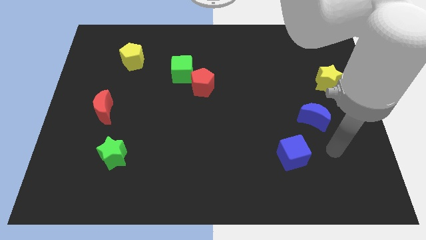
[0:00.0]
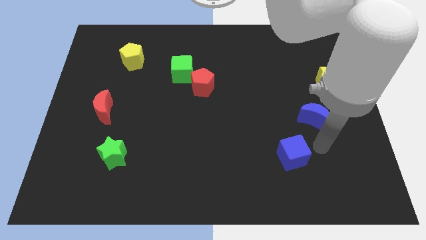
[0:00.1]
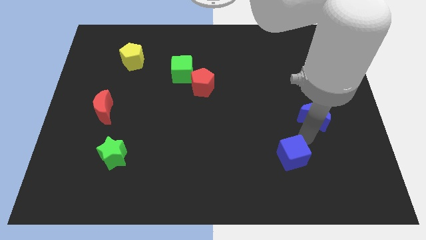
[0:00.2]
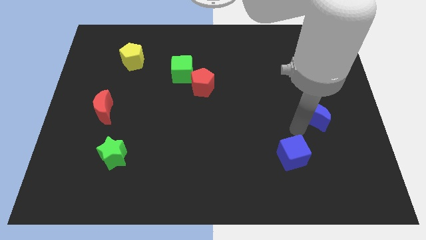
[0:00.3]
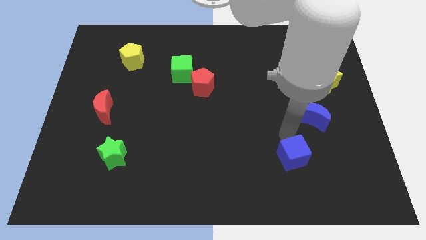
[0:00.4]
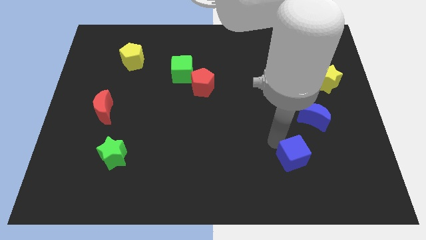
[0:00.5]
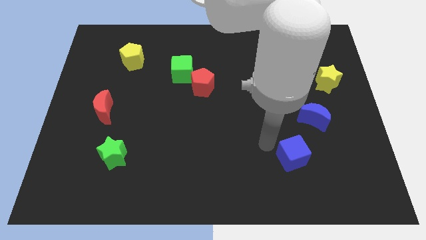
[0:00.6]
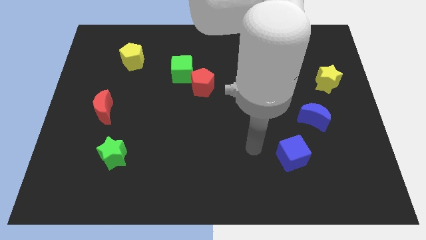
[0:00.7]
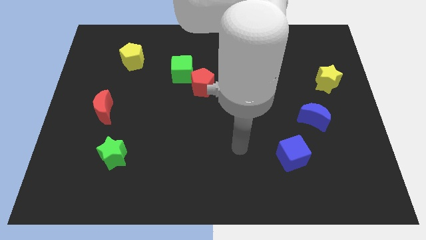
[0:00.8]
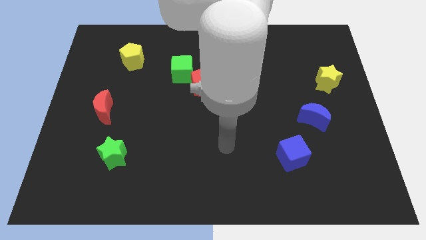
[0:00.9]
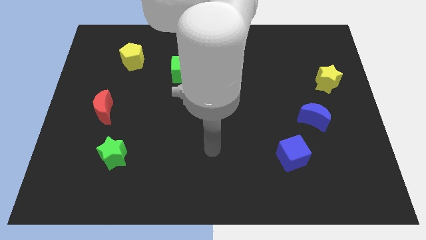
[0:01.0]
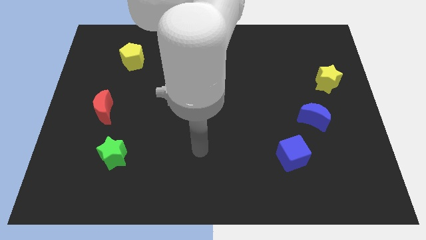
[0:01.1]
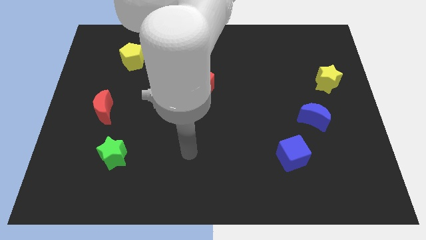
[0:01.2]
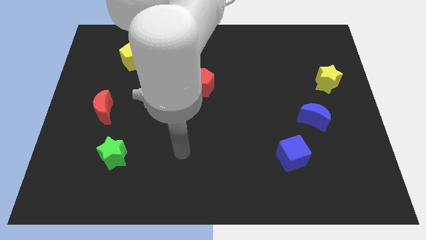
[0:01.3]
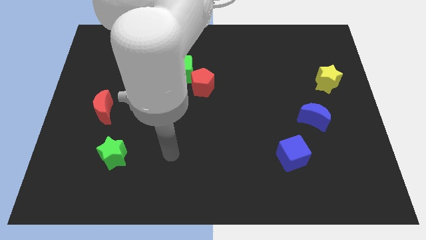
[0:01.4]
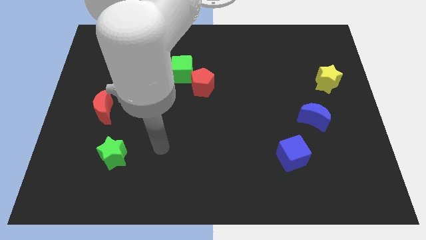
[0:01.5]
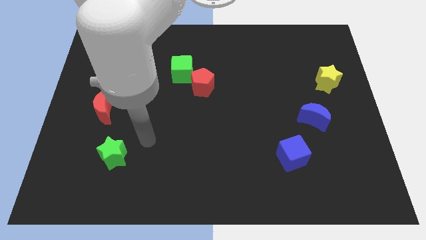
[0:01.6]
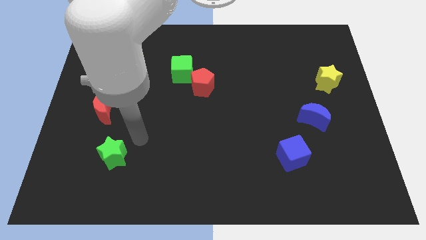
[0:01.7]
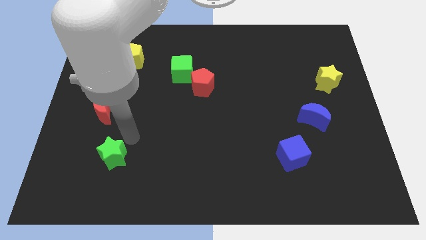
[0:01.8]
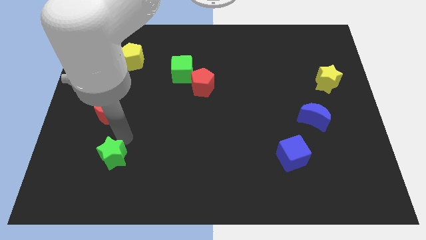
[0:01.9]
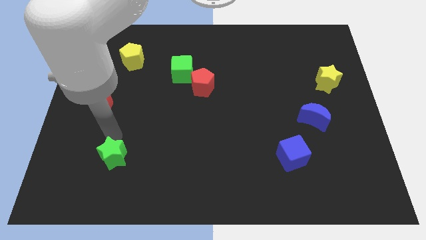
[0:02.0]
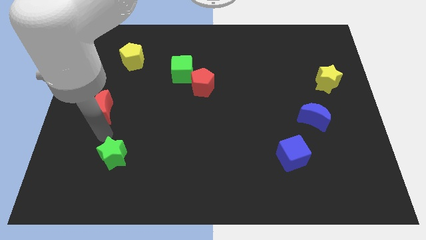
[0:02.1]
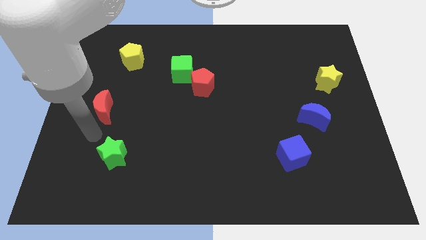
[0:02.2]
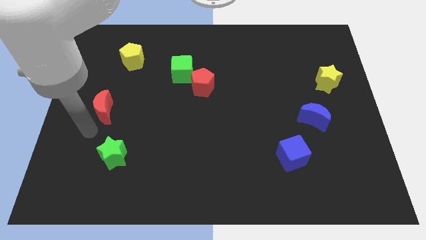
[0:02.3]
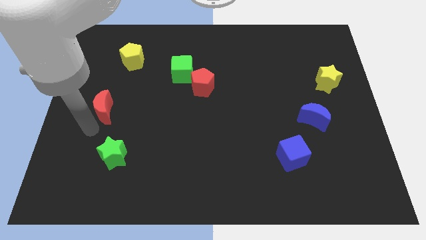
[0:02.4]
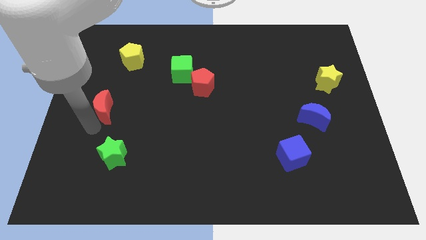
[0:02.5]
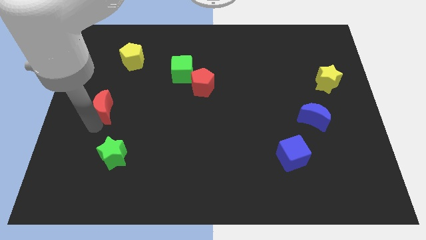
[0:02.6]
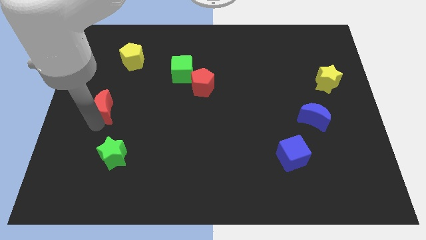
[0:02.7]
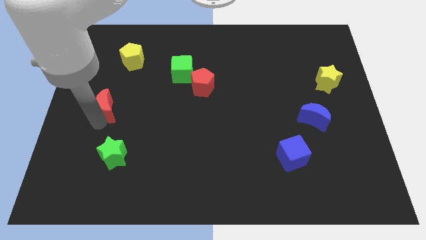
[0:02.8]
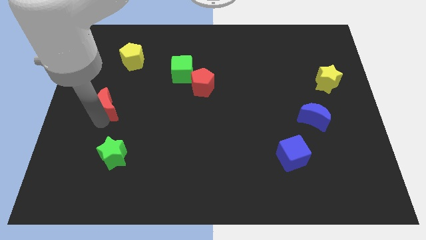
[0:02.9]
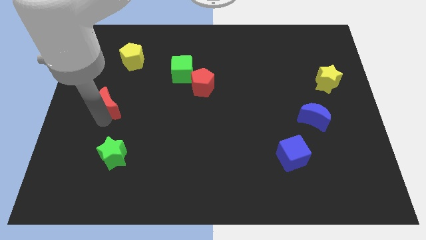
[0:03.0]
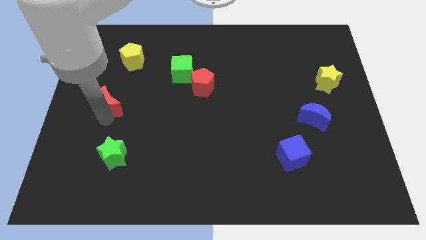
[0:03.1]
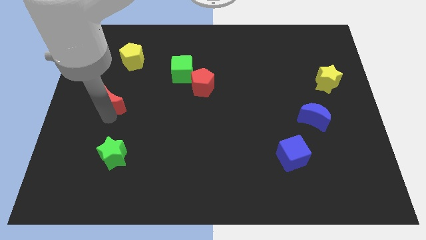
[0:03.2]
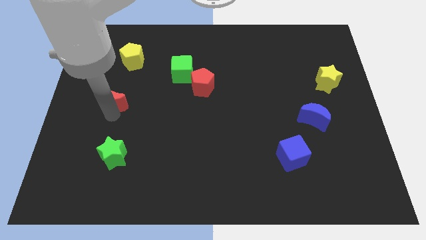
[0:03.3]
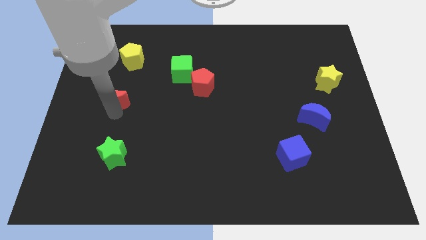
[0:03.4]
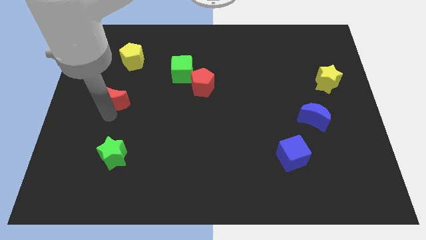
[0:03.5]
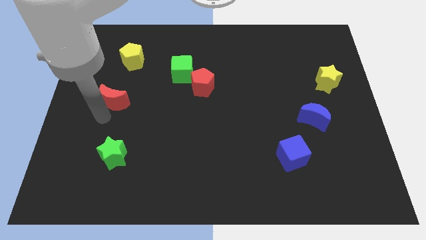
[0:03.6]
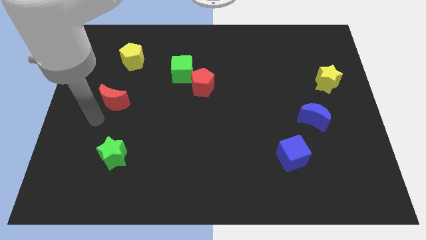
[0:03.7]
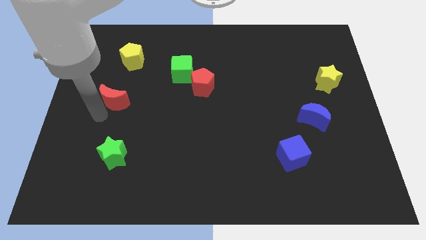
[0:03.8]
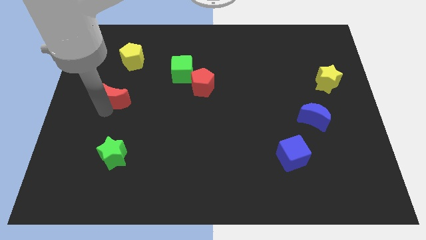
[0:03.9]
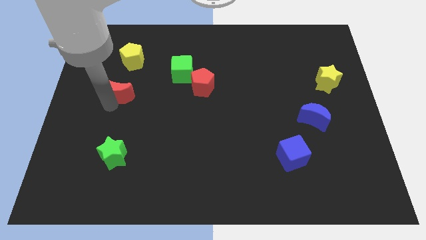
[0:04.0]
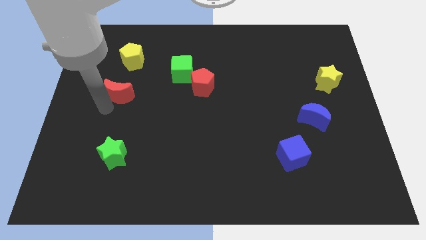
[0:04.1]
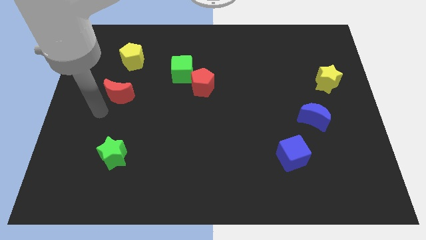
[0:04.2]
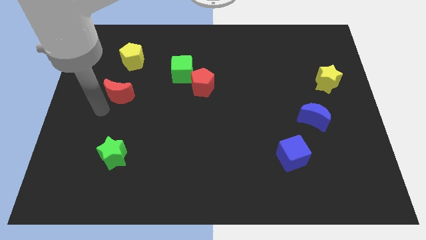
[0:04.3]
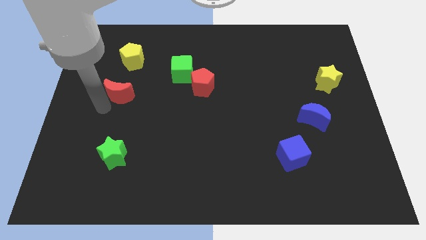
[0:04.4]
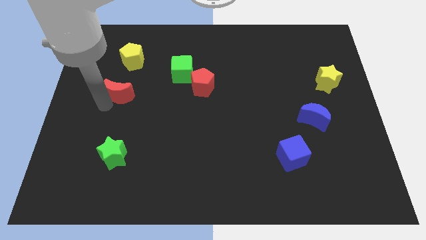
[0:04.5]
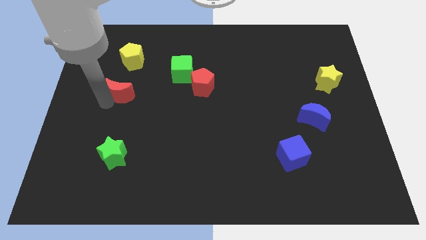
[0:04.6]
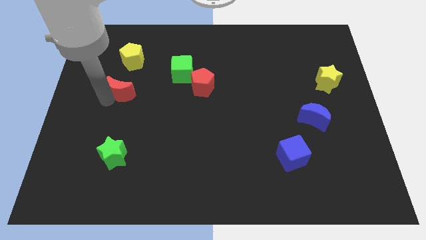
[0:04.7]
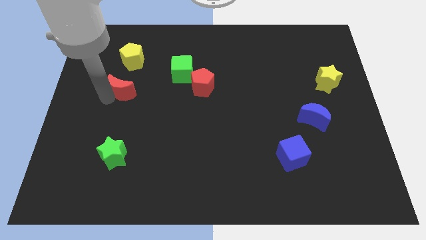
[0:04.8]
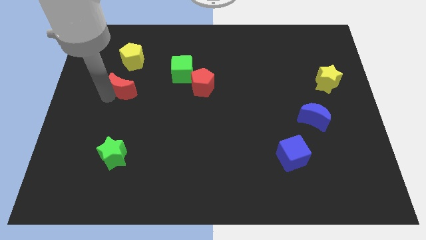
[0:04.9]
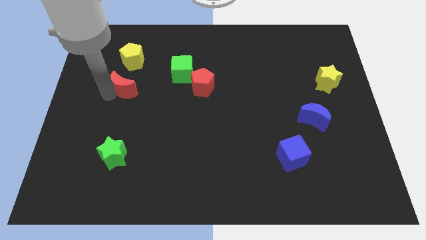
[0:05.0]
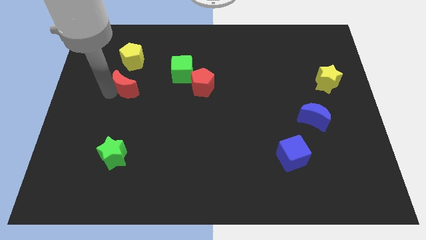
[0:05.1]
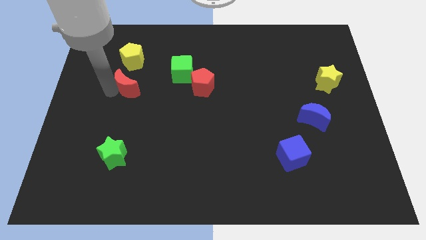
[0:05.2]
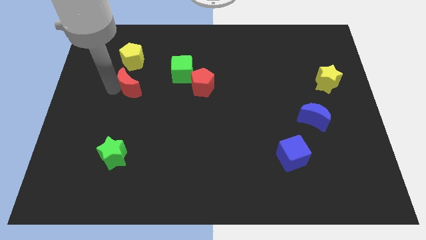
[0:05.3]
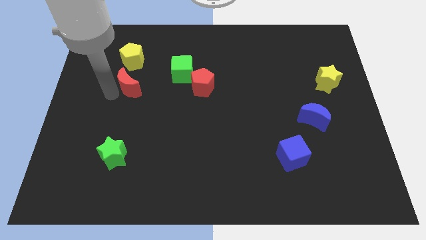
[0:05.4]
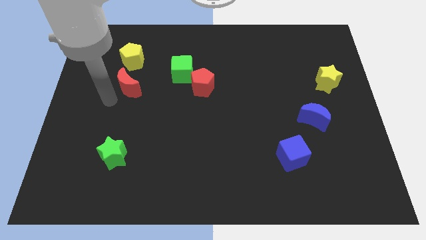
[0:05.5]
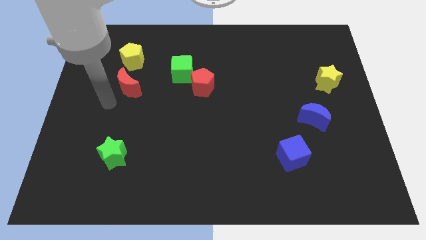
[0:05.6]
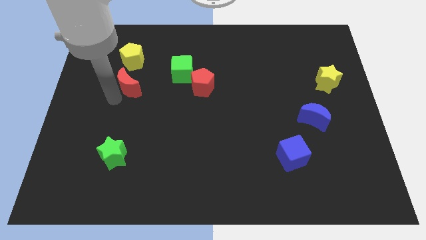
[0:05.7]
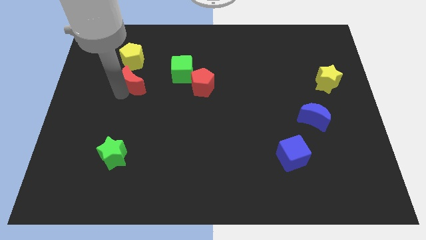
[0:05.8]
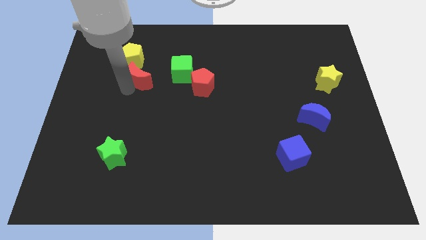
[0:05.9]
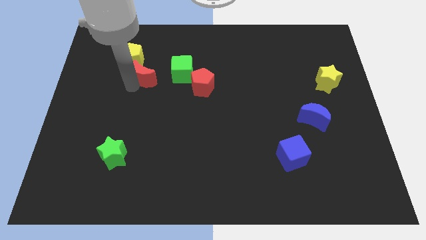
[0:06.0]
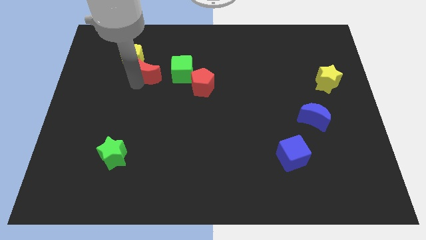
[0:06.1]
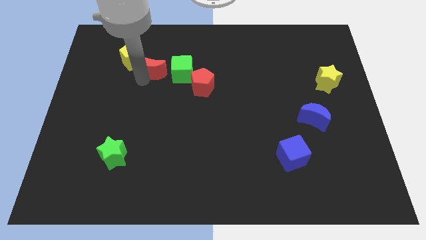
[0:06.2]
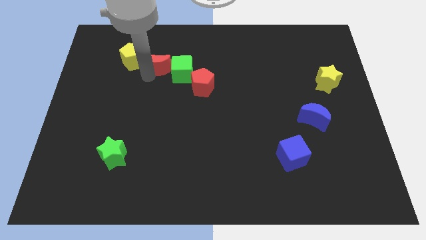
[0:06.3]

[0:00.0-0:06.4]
put the red moon to the top left of the green cube

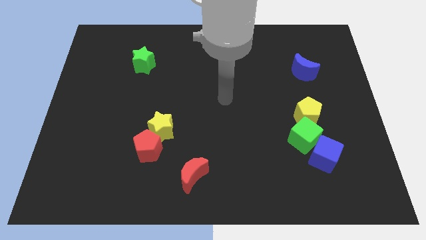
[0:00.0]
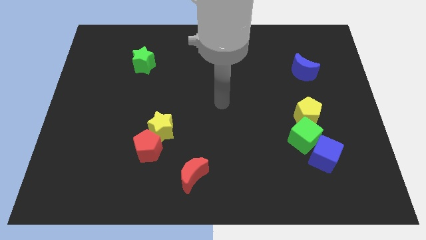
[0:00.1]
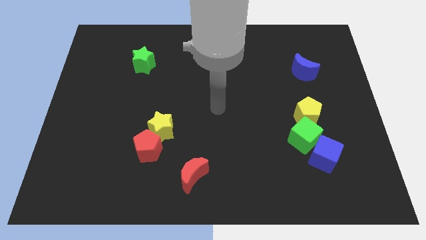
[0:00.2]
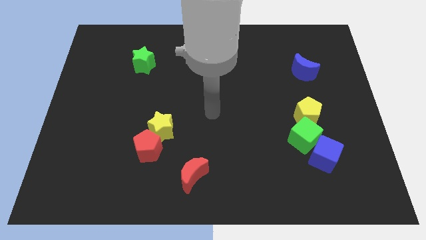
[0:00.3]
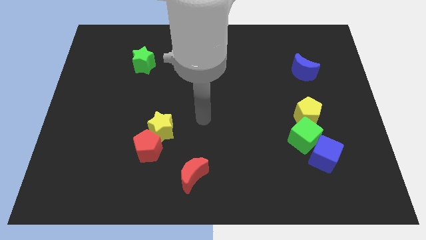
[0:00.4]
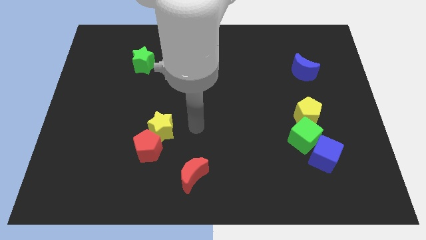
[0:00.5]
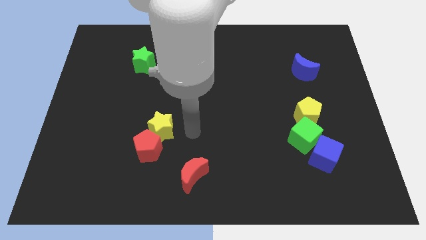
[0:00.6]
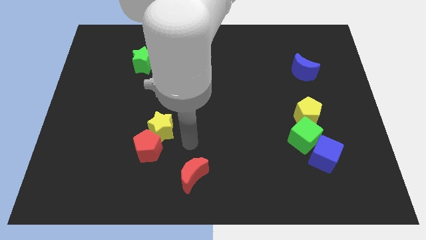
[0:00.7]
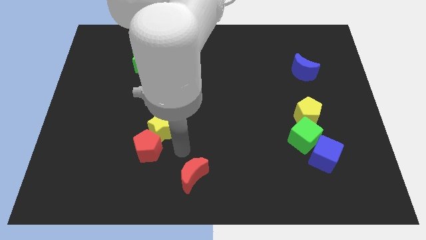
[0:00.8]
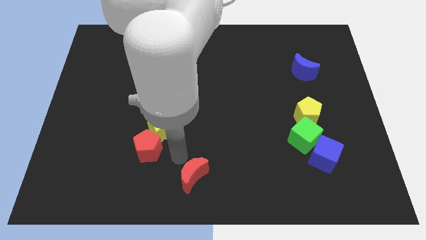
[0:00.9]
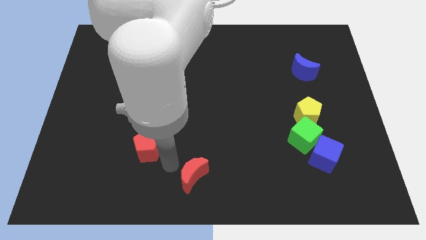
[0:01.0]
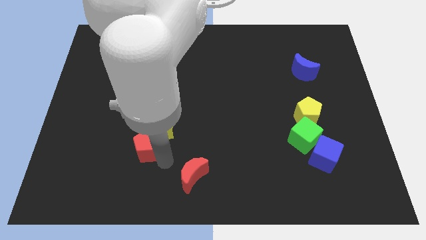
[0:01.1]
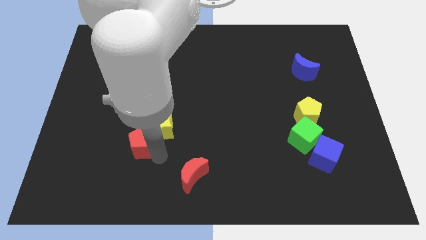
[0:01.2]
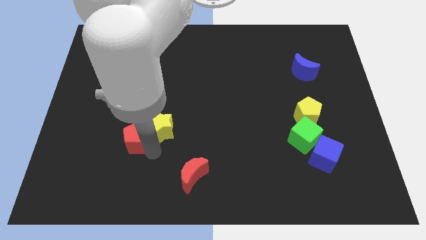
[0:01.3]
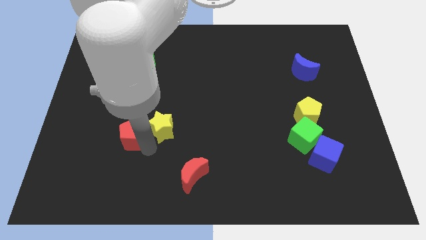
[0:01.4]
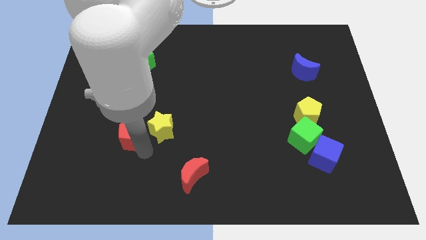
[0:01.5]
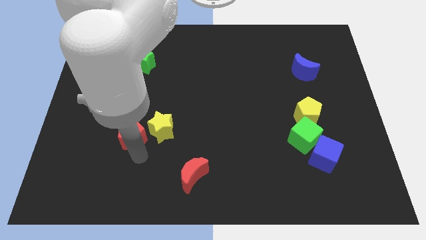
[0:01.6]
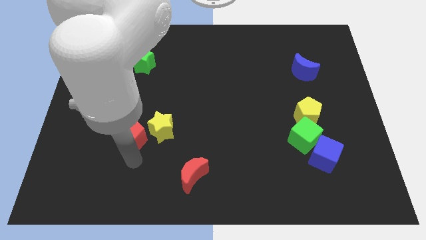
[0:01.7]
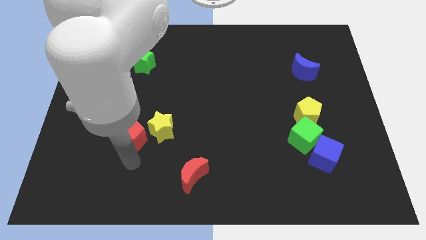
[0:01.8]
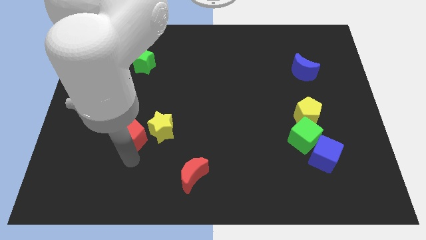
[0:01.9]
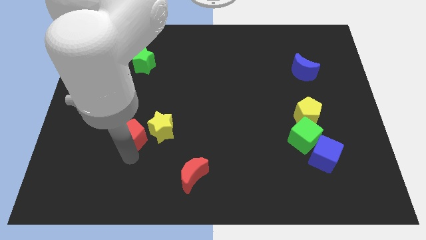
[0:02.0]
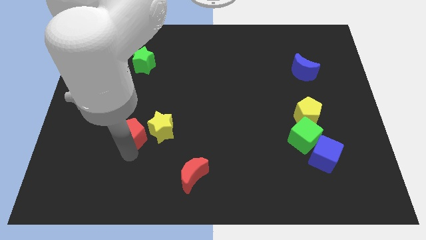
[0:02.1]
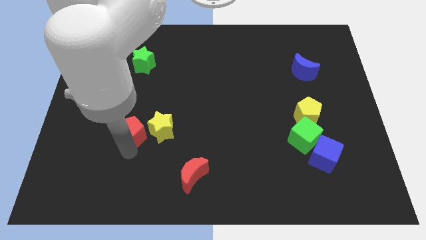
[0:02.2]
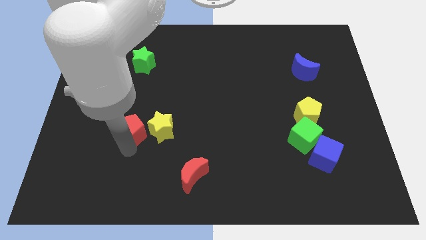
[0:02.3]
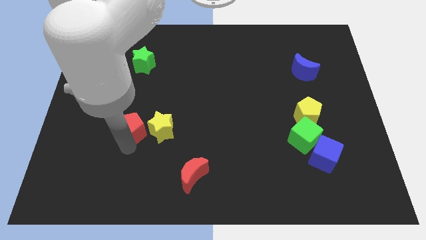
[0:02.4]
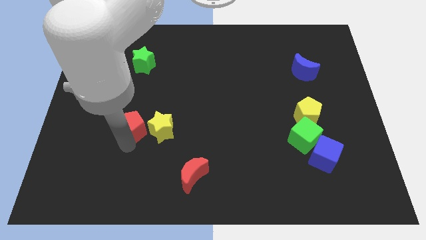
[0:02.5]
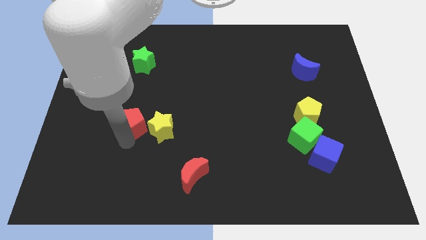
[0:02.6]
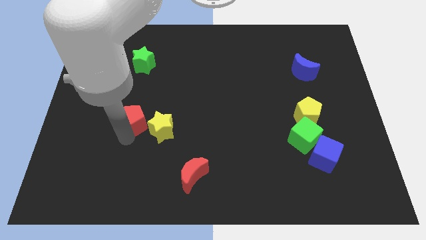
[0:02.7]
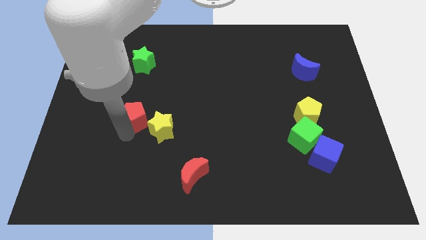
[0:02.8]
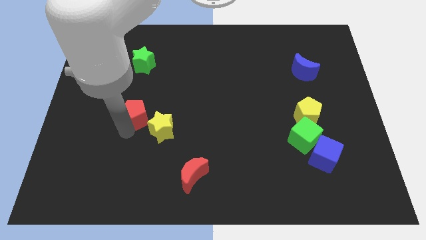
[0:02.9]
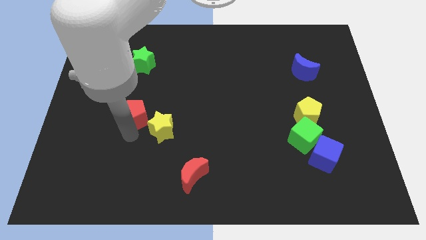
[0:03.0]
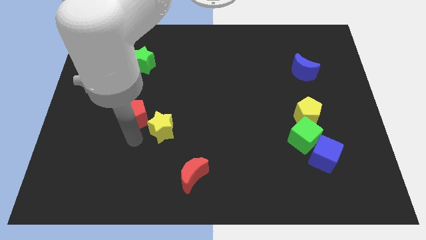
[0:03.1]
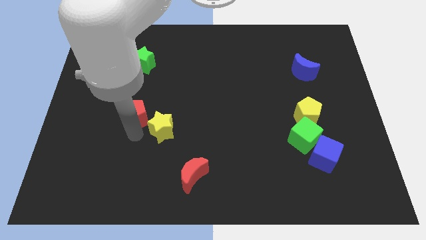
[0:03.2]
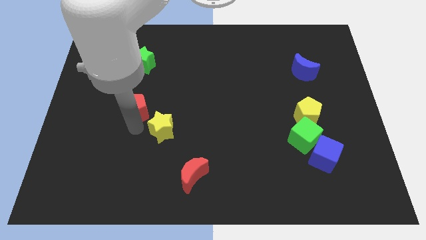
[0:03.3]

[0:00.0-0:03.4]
put the red pentagon to the bottom of the green star
